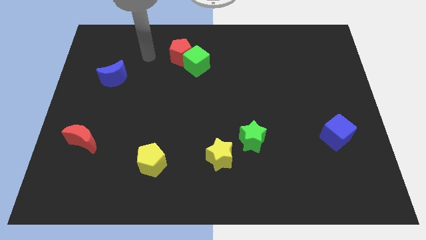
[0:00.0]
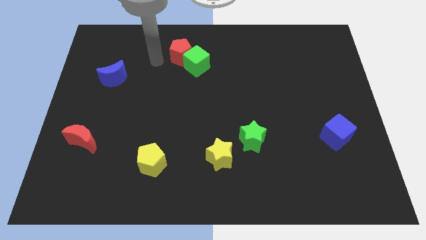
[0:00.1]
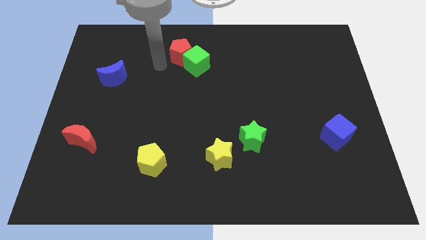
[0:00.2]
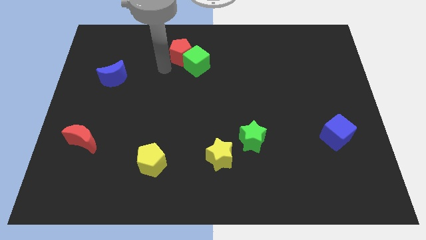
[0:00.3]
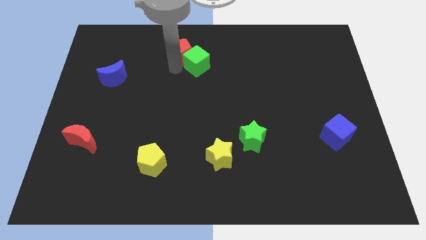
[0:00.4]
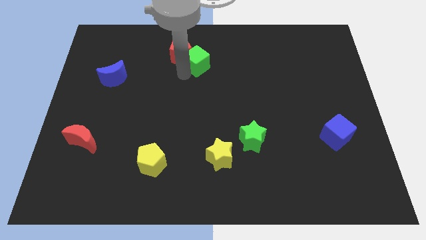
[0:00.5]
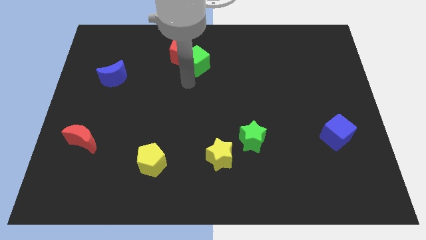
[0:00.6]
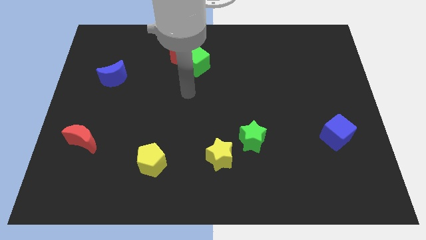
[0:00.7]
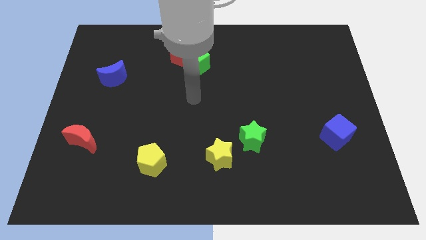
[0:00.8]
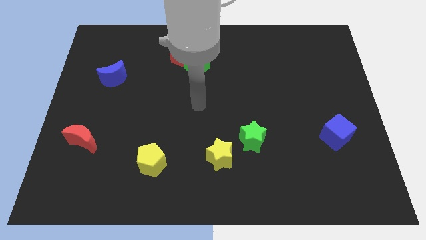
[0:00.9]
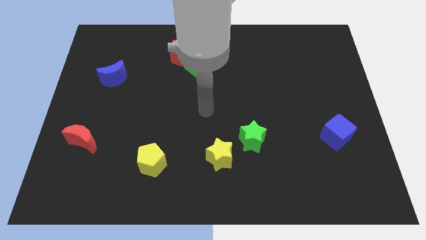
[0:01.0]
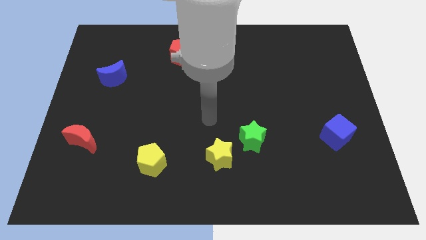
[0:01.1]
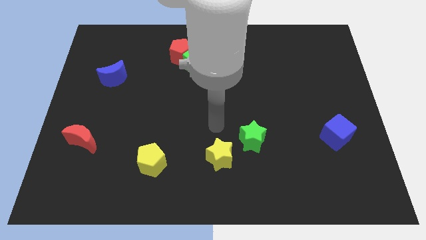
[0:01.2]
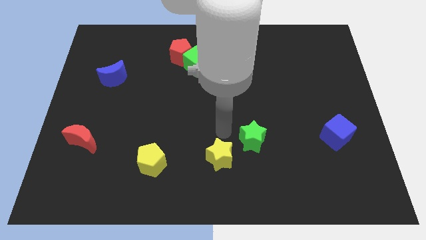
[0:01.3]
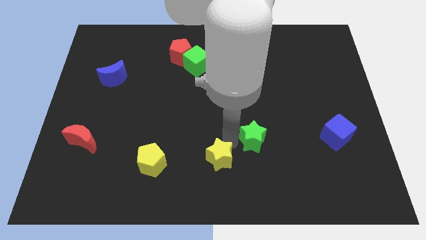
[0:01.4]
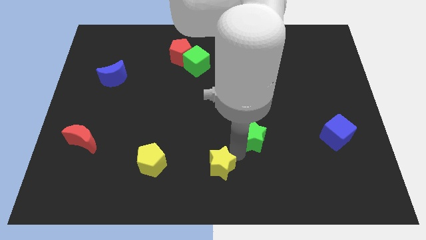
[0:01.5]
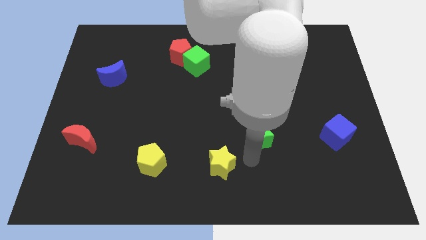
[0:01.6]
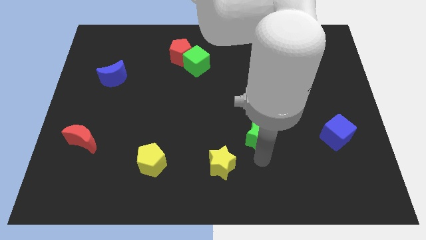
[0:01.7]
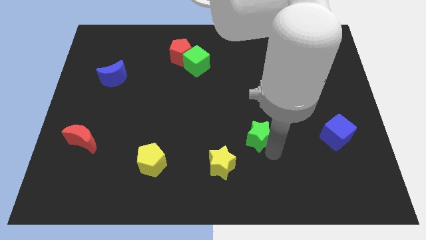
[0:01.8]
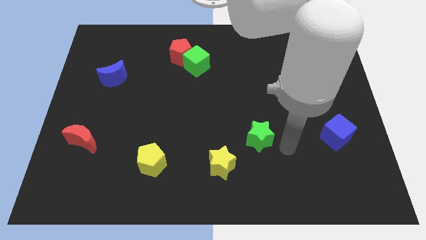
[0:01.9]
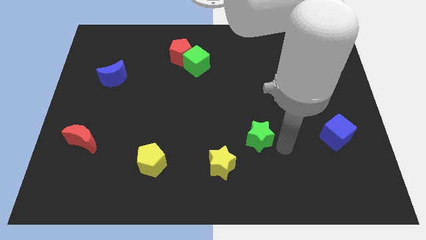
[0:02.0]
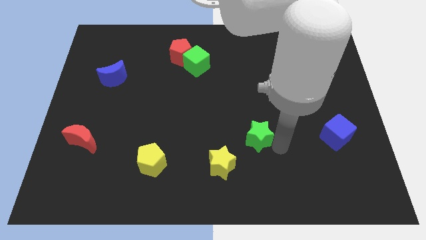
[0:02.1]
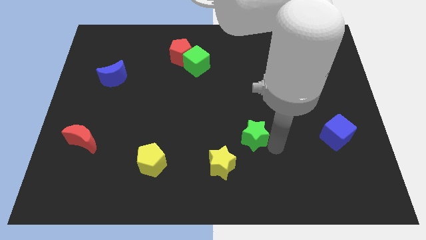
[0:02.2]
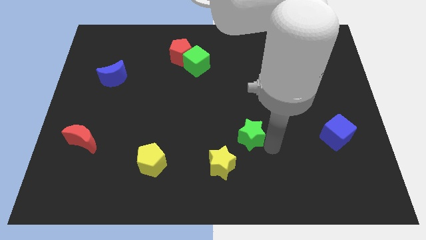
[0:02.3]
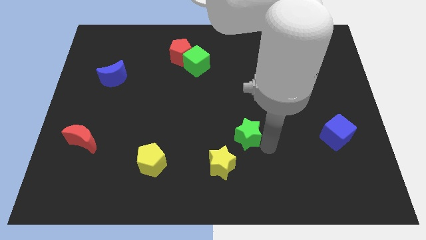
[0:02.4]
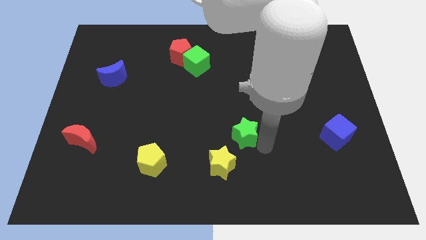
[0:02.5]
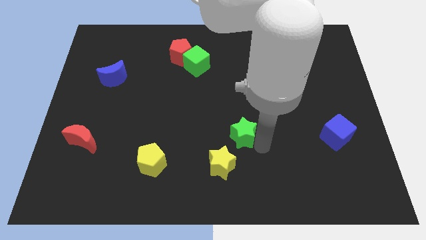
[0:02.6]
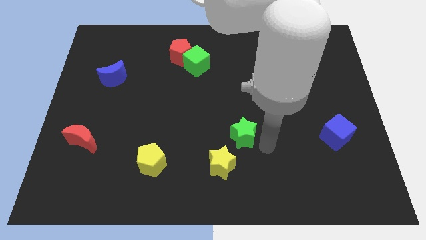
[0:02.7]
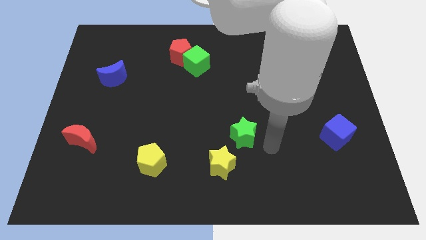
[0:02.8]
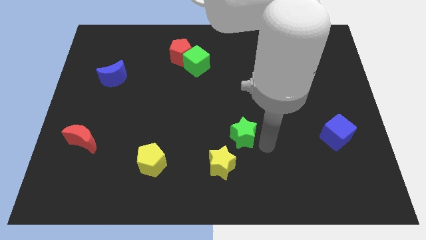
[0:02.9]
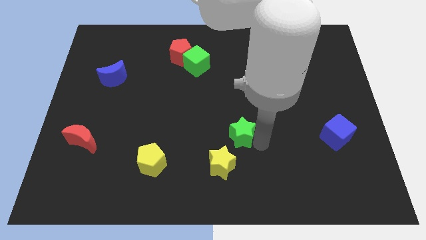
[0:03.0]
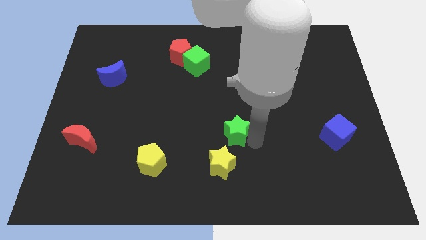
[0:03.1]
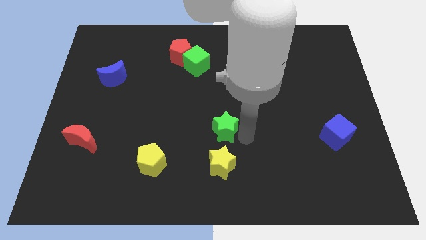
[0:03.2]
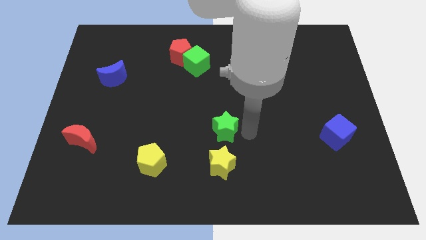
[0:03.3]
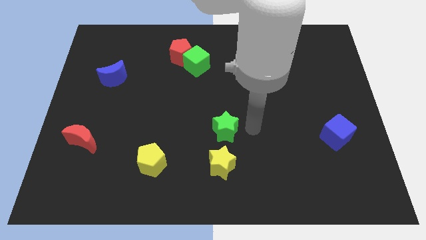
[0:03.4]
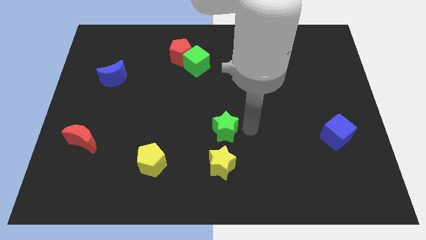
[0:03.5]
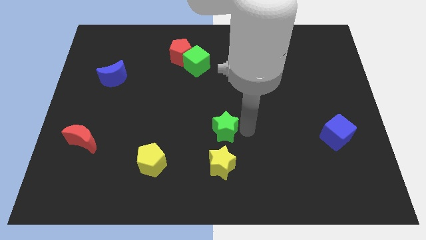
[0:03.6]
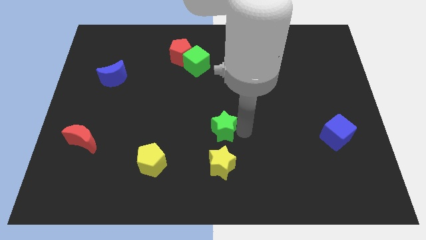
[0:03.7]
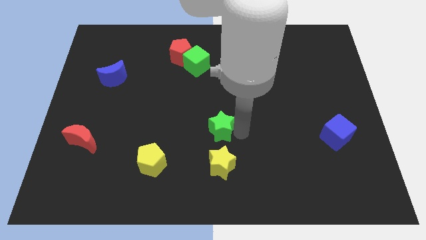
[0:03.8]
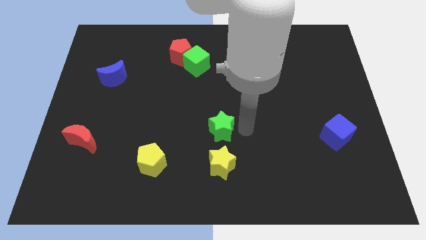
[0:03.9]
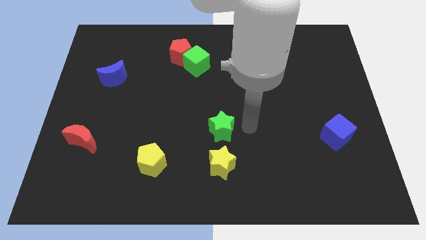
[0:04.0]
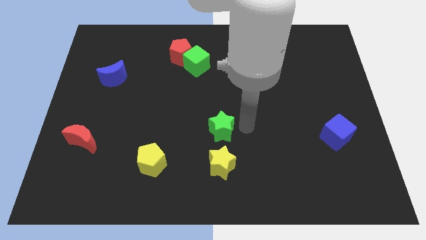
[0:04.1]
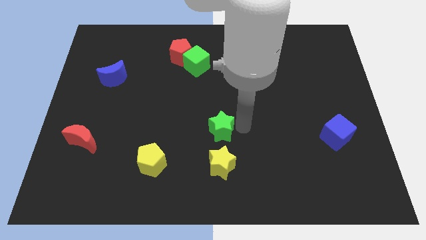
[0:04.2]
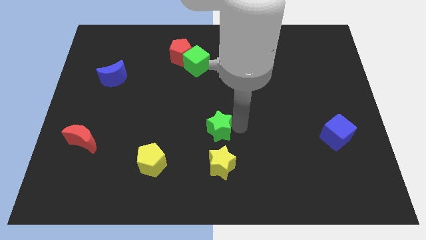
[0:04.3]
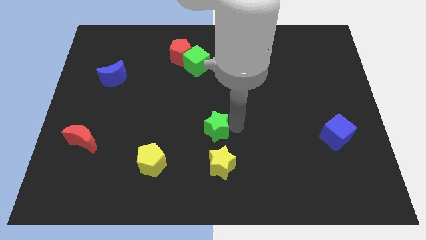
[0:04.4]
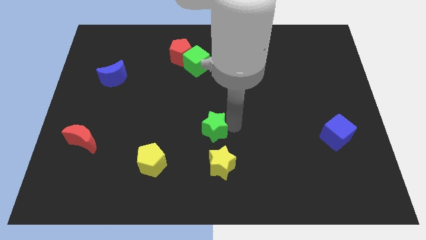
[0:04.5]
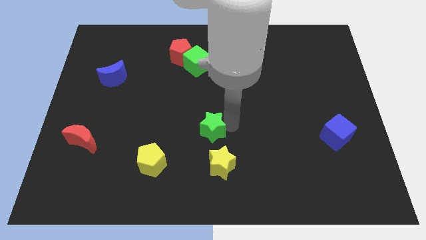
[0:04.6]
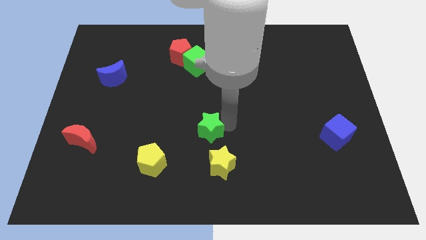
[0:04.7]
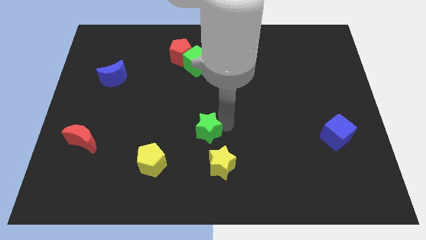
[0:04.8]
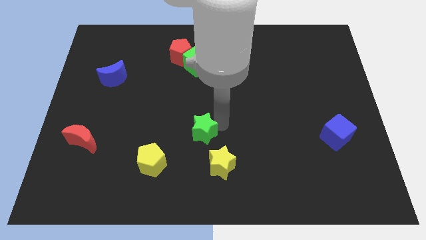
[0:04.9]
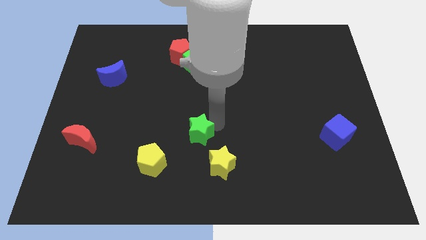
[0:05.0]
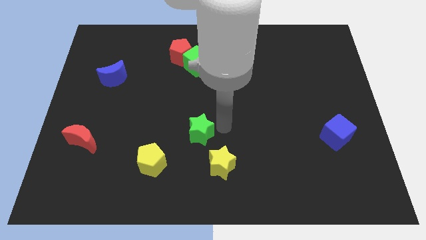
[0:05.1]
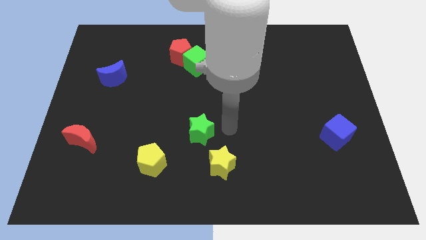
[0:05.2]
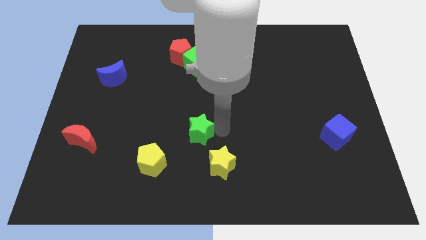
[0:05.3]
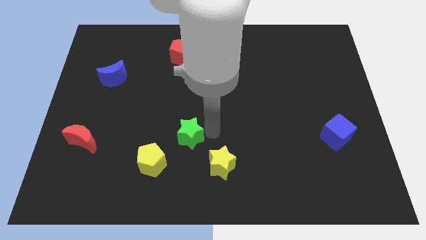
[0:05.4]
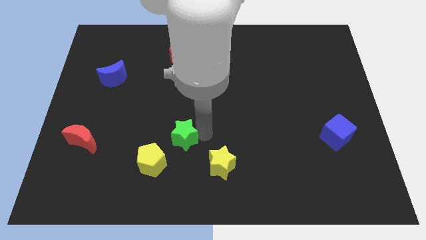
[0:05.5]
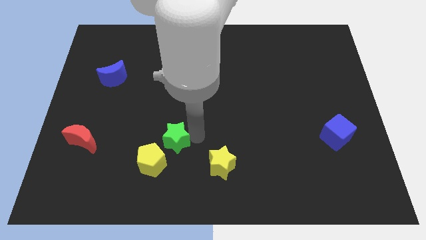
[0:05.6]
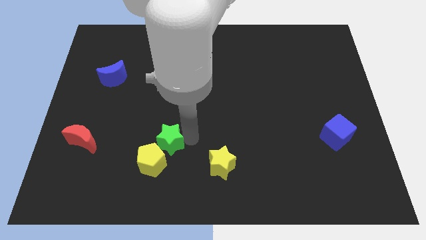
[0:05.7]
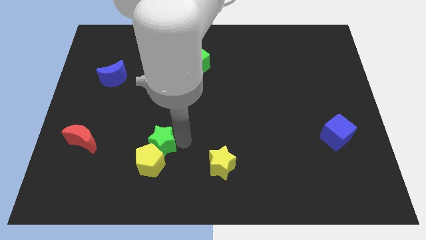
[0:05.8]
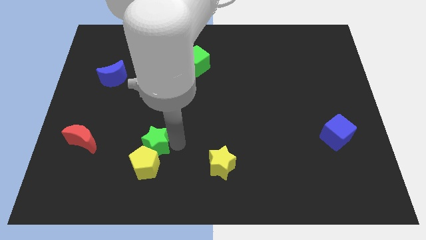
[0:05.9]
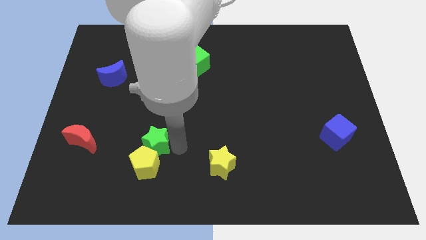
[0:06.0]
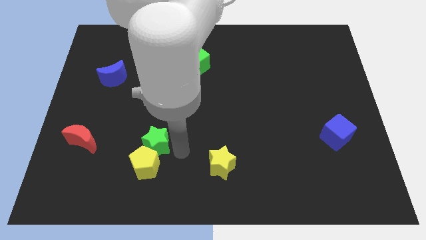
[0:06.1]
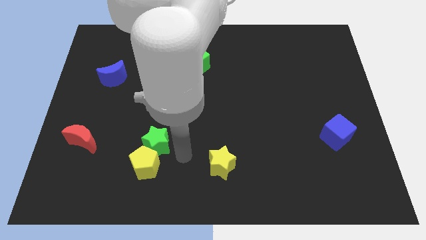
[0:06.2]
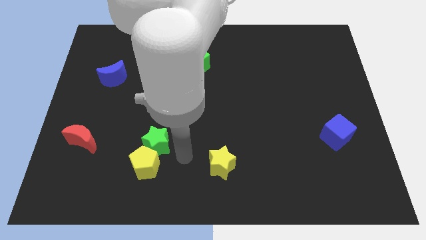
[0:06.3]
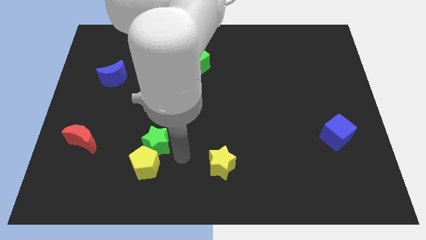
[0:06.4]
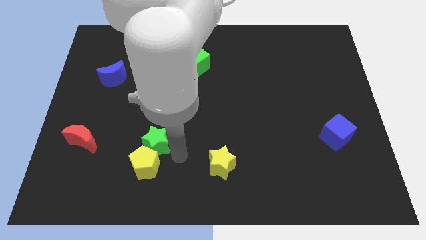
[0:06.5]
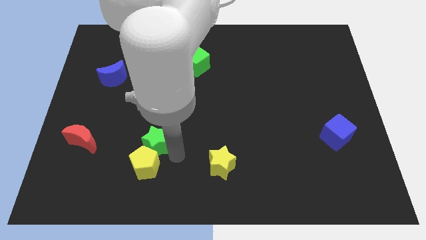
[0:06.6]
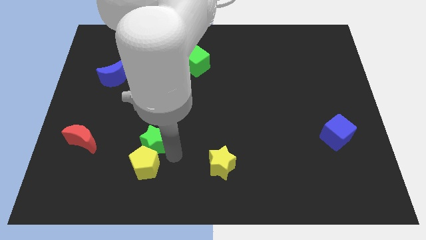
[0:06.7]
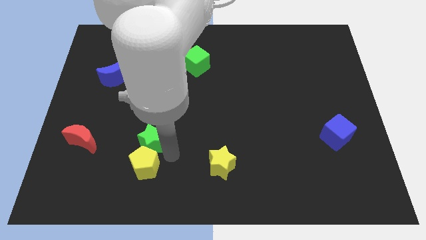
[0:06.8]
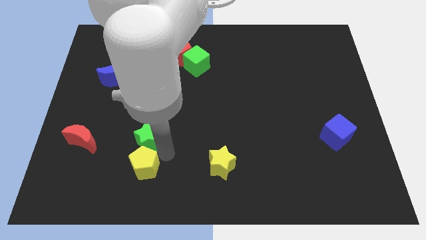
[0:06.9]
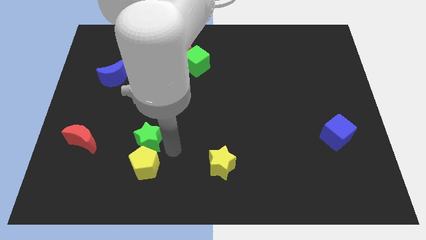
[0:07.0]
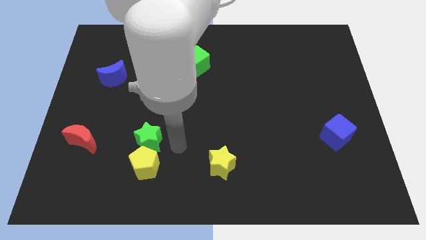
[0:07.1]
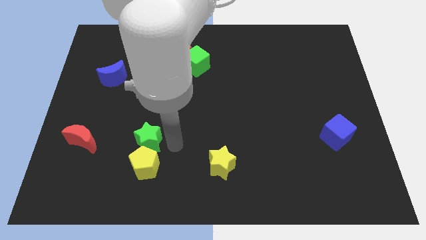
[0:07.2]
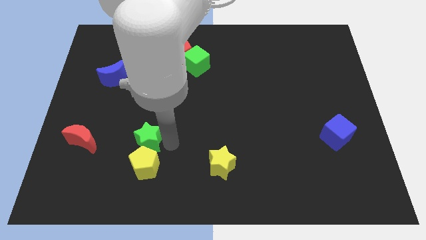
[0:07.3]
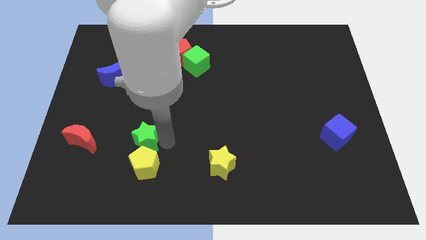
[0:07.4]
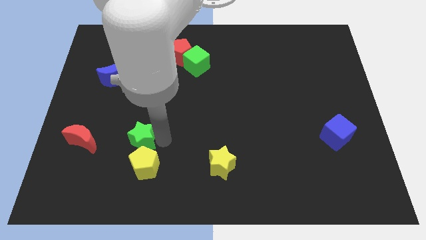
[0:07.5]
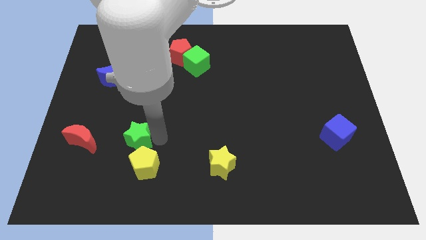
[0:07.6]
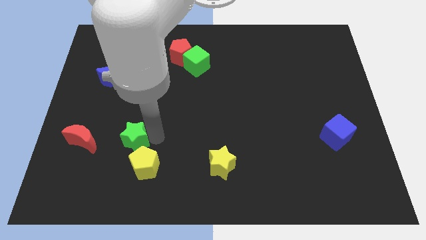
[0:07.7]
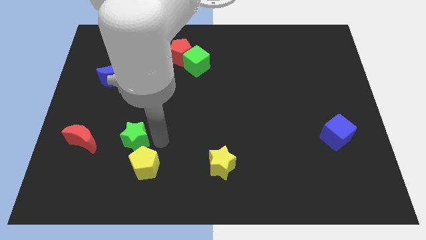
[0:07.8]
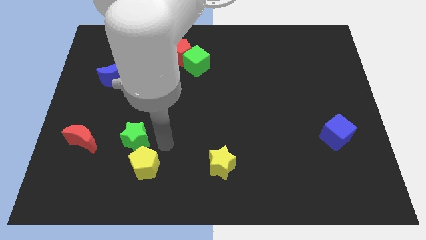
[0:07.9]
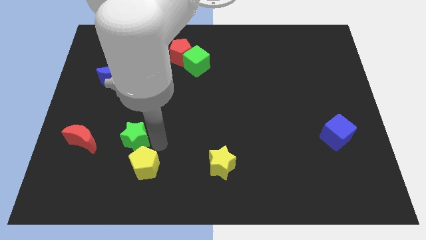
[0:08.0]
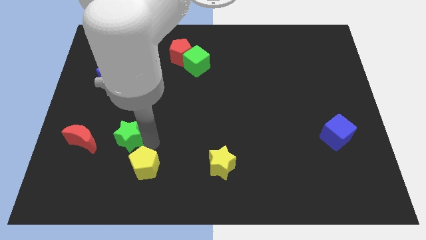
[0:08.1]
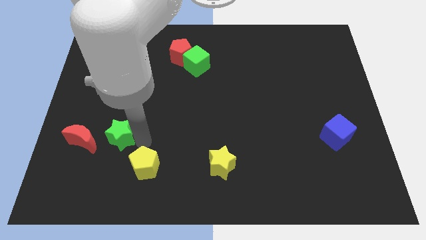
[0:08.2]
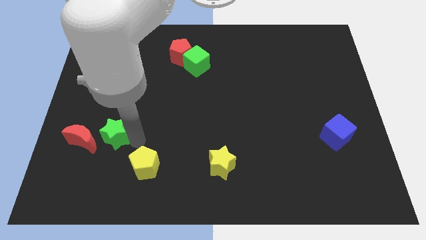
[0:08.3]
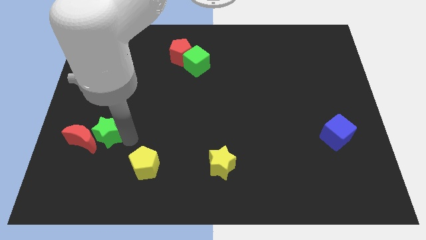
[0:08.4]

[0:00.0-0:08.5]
put the green star close to the red moon
